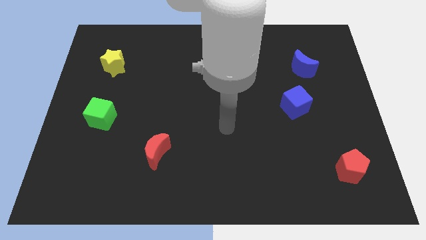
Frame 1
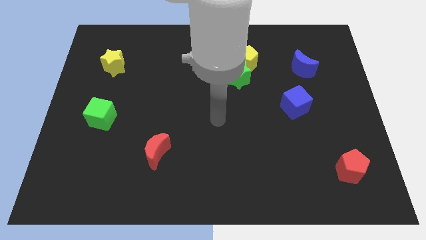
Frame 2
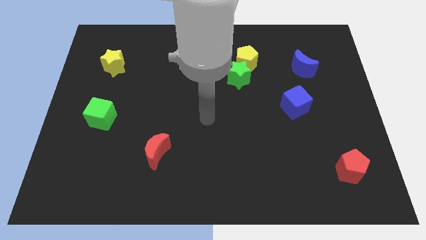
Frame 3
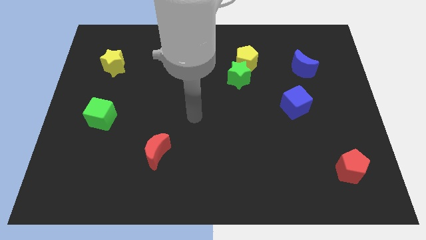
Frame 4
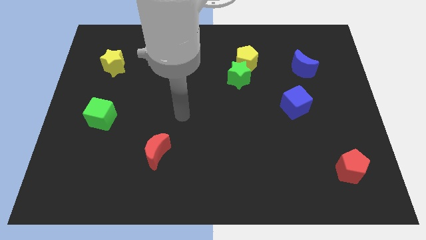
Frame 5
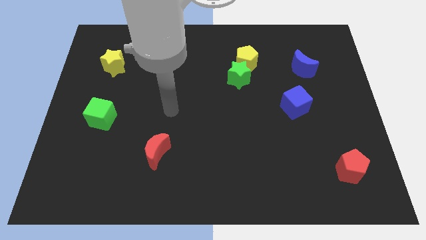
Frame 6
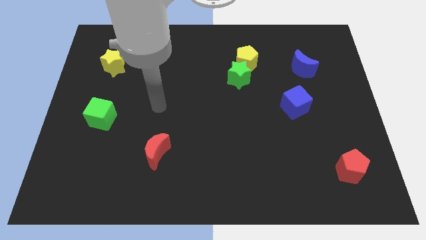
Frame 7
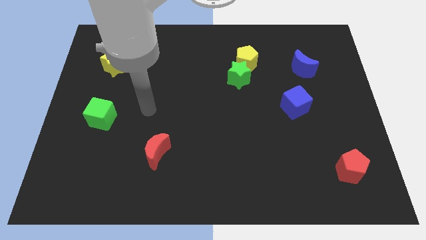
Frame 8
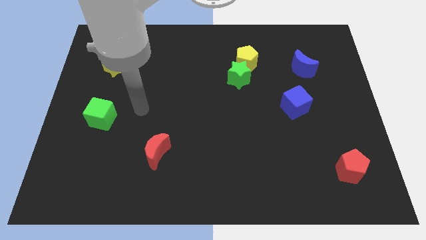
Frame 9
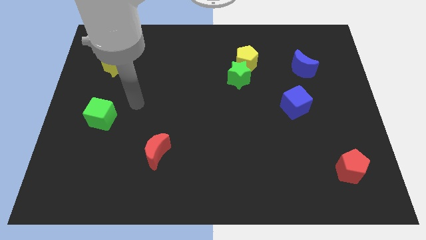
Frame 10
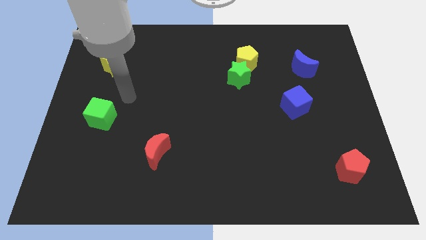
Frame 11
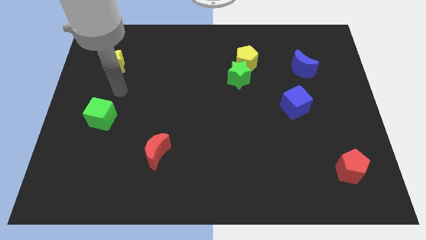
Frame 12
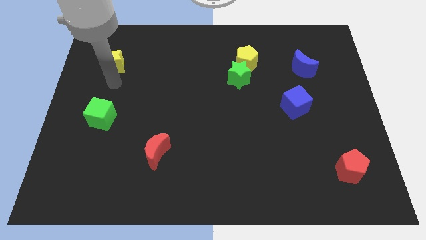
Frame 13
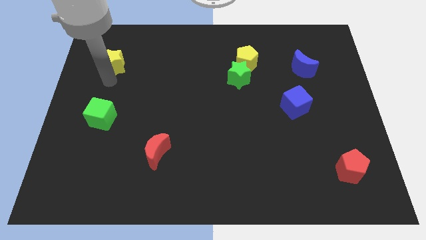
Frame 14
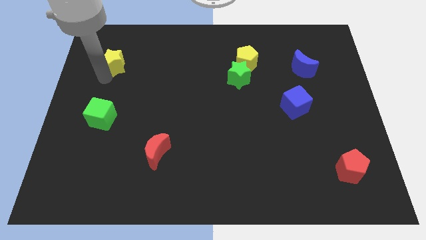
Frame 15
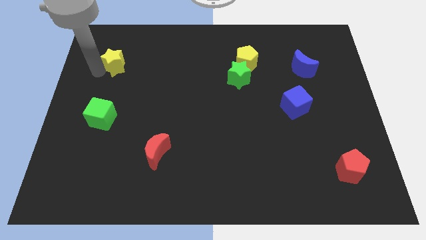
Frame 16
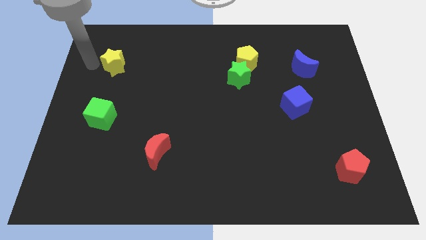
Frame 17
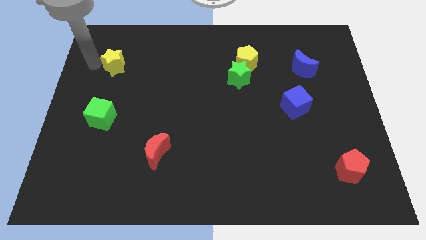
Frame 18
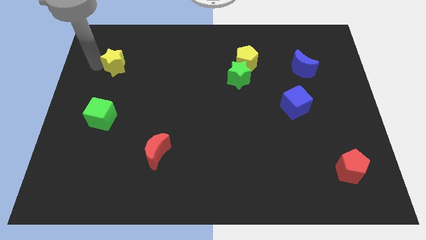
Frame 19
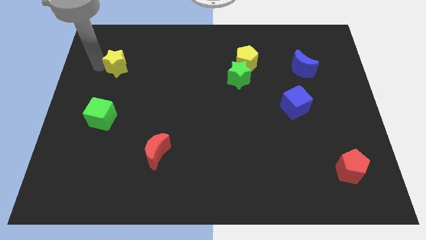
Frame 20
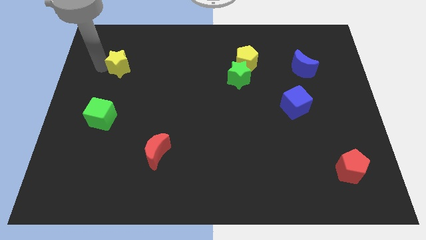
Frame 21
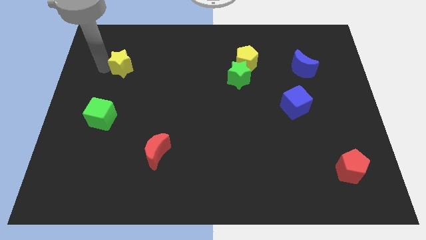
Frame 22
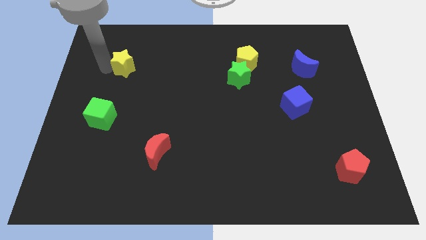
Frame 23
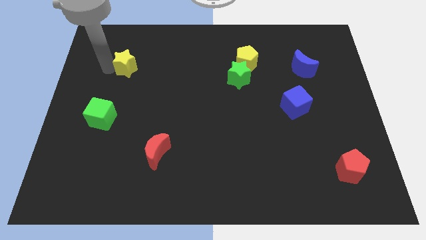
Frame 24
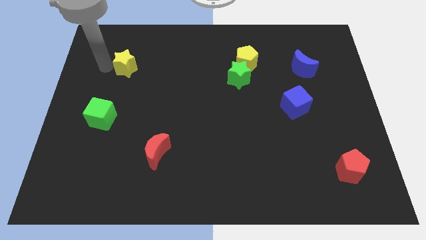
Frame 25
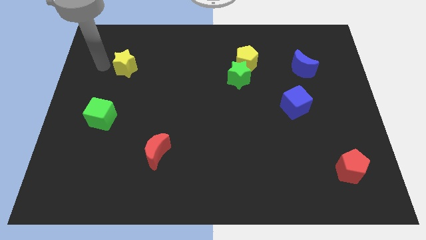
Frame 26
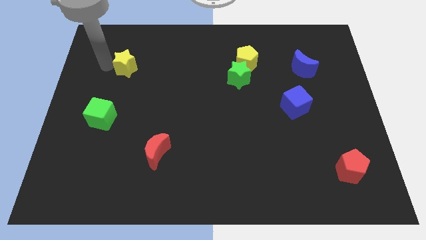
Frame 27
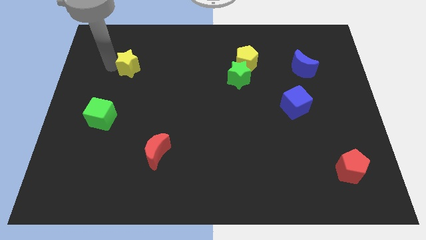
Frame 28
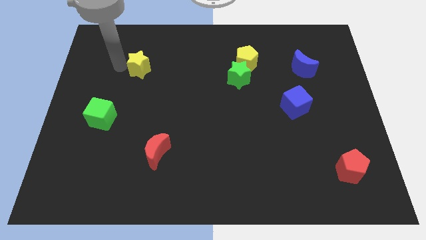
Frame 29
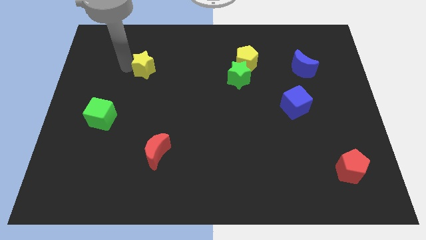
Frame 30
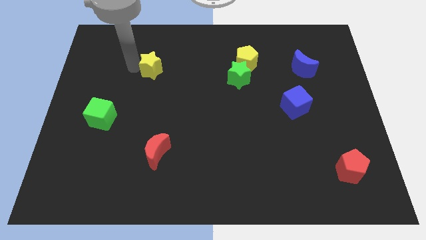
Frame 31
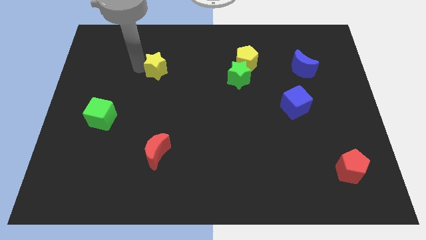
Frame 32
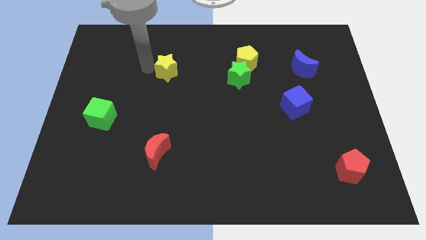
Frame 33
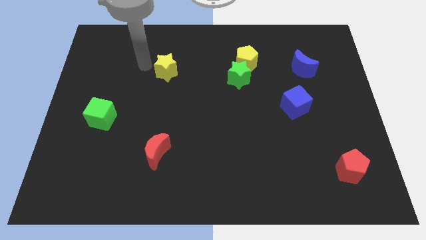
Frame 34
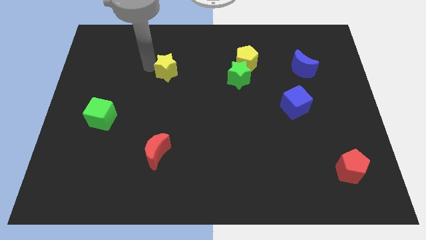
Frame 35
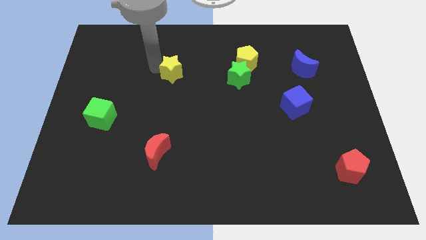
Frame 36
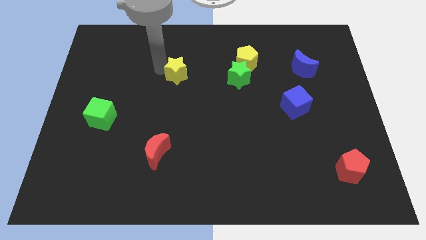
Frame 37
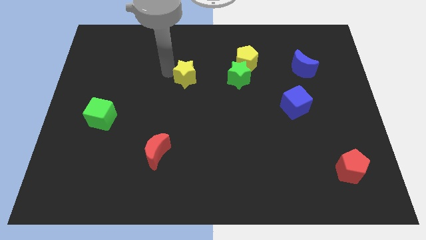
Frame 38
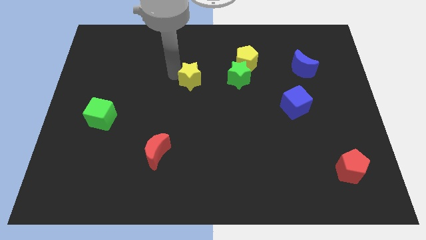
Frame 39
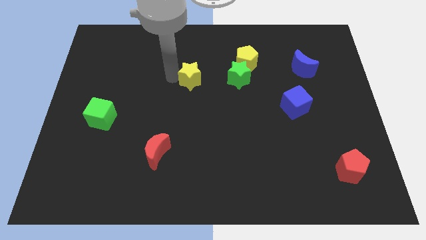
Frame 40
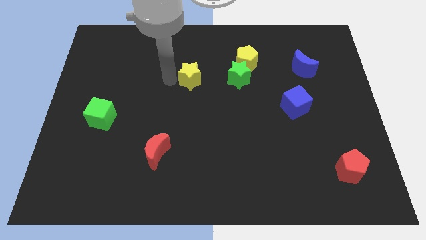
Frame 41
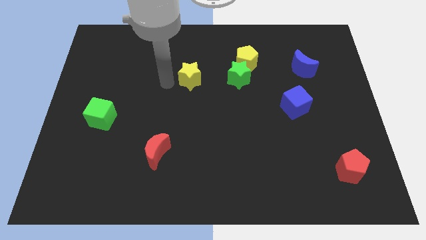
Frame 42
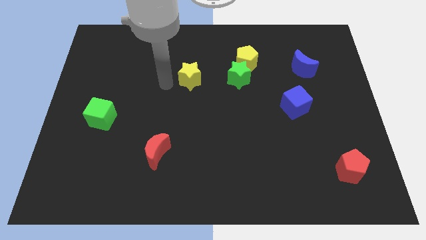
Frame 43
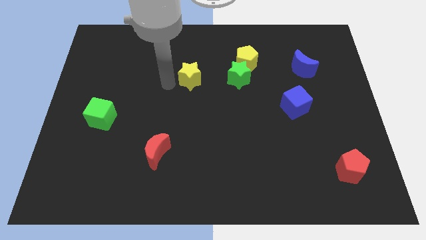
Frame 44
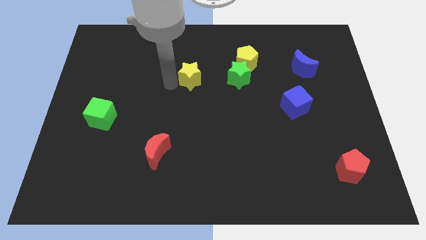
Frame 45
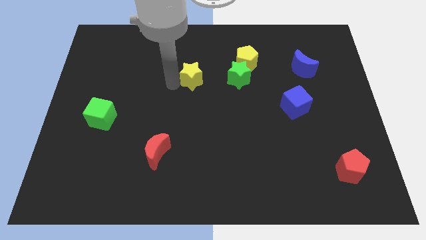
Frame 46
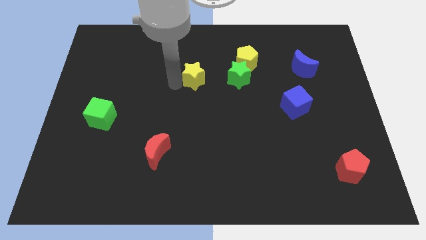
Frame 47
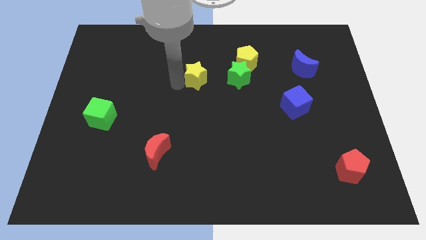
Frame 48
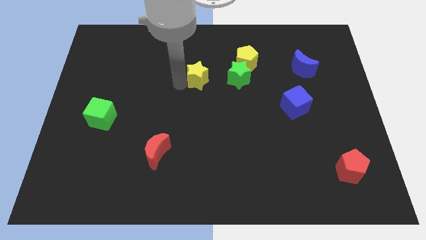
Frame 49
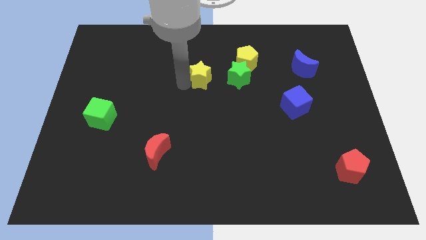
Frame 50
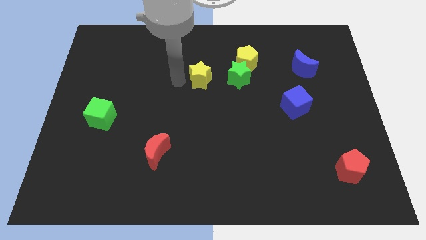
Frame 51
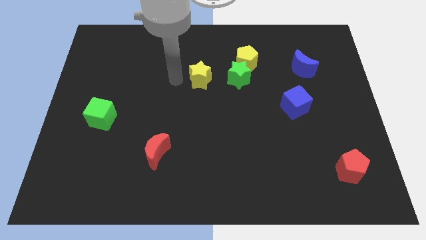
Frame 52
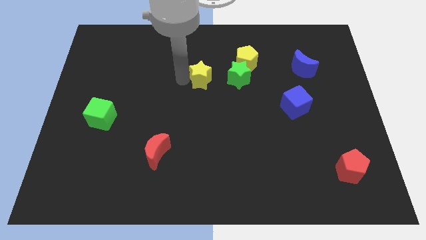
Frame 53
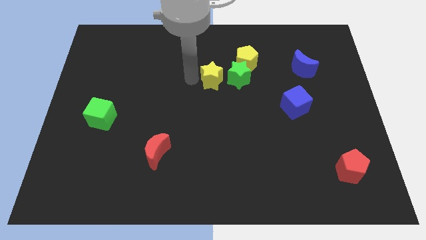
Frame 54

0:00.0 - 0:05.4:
put the yellow star towards the green star

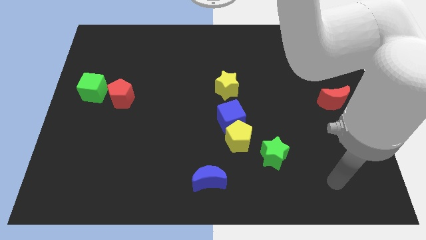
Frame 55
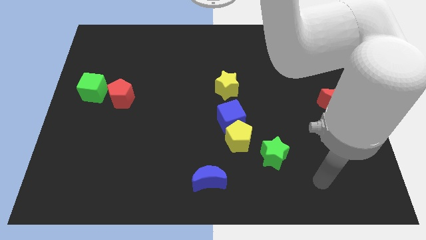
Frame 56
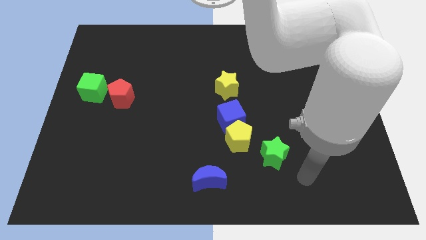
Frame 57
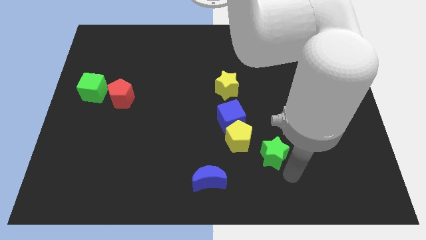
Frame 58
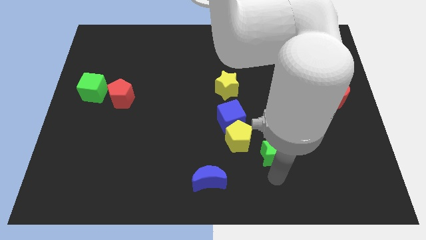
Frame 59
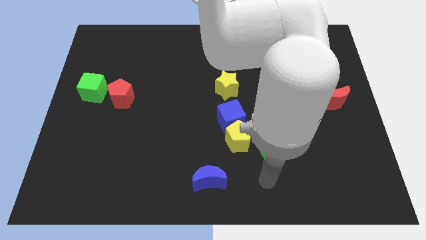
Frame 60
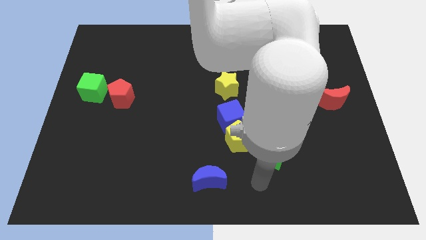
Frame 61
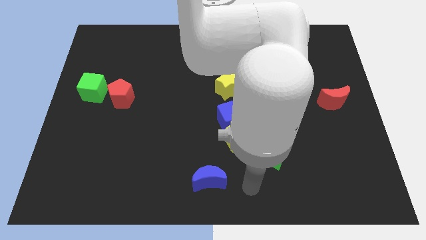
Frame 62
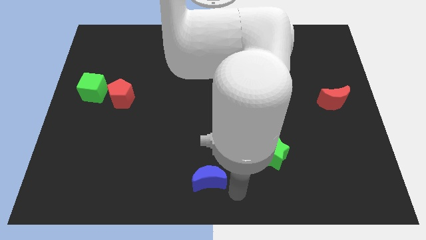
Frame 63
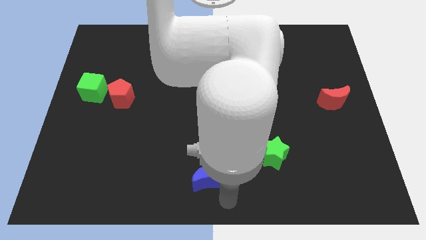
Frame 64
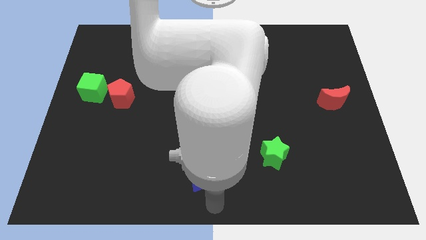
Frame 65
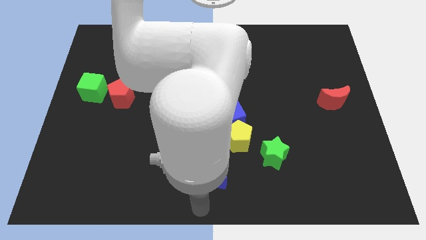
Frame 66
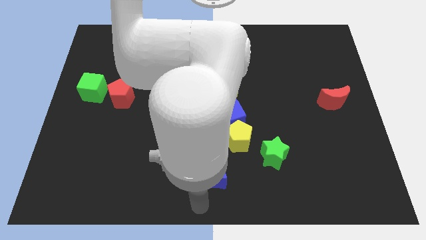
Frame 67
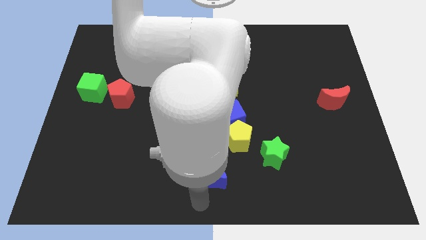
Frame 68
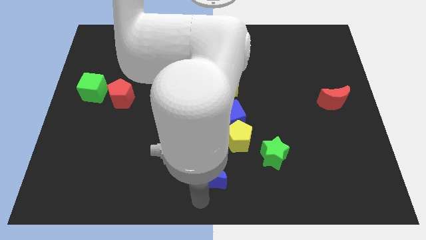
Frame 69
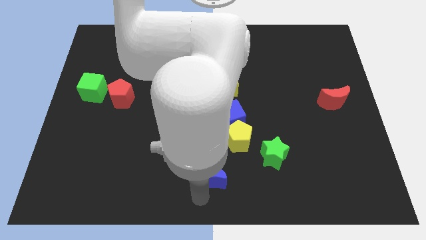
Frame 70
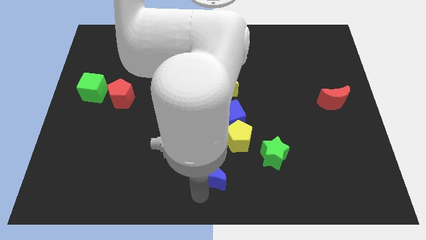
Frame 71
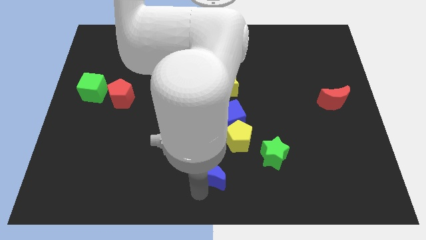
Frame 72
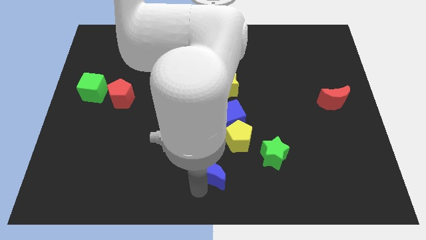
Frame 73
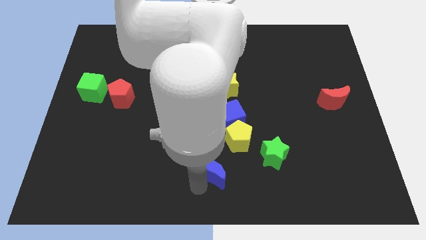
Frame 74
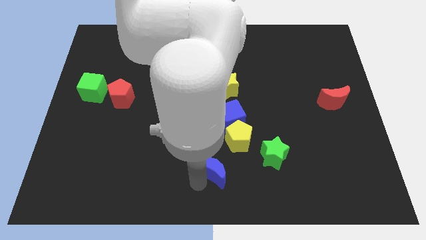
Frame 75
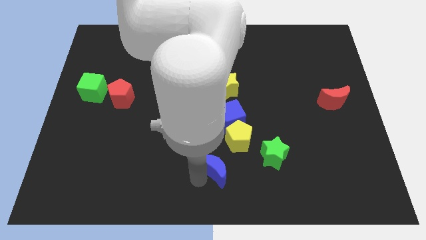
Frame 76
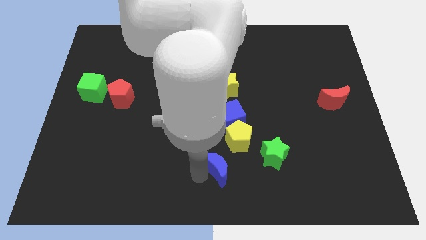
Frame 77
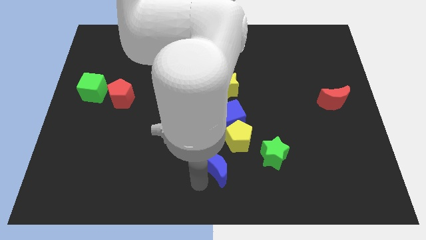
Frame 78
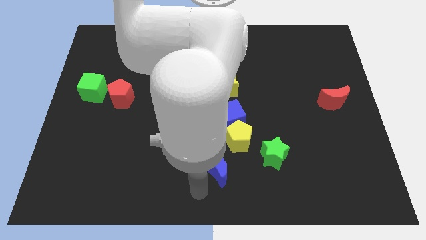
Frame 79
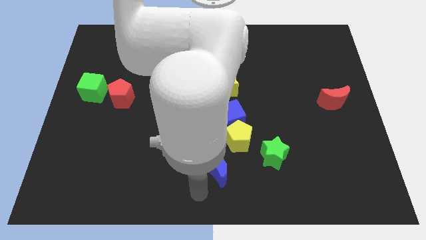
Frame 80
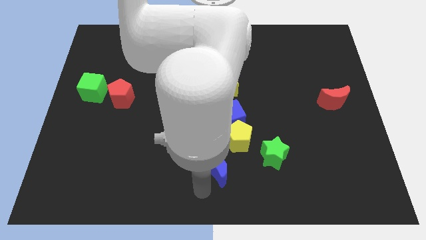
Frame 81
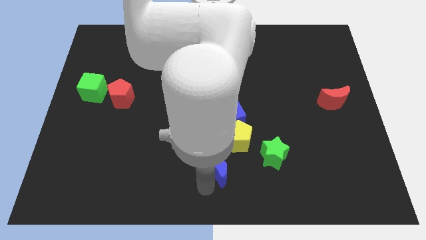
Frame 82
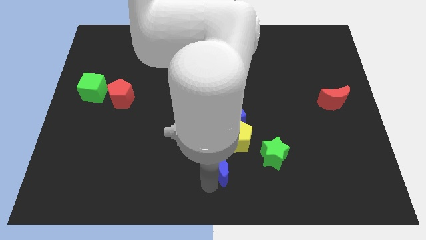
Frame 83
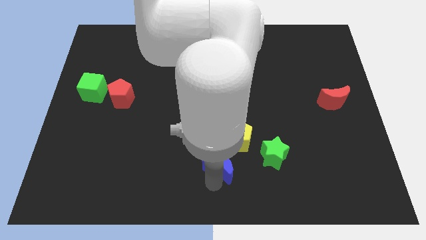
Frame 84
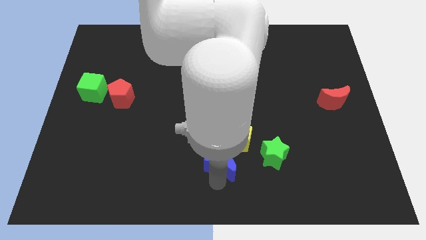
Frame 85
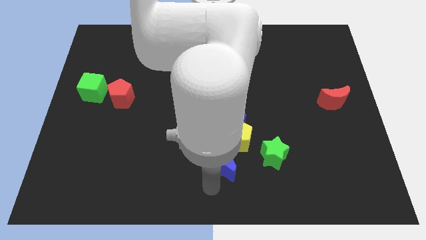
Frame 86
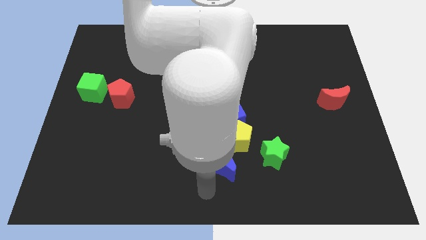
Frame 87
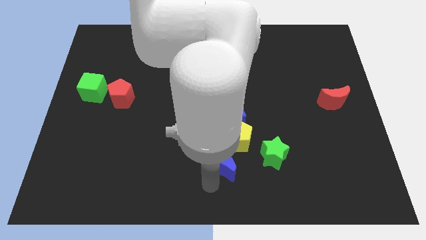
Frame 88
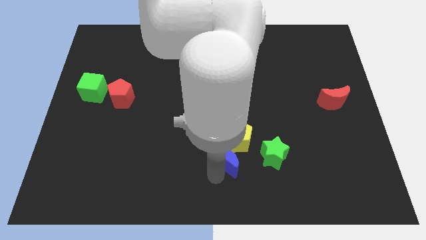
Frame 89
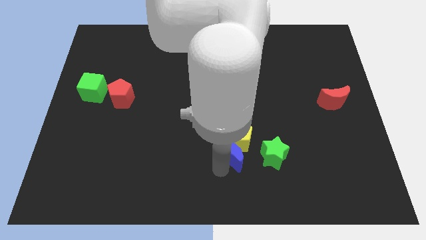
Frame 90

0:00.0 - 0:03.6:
put the blue moon to the yellow pentagon
